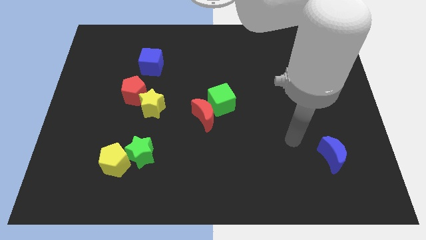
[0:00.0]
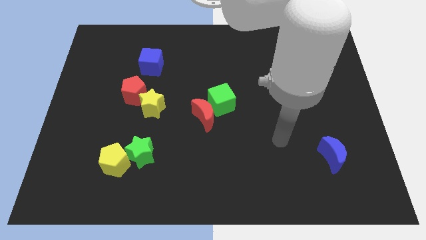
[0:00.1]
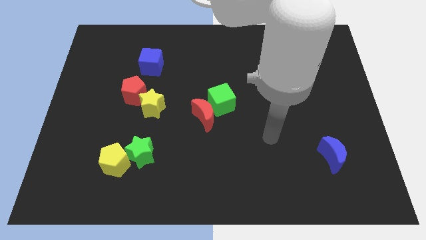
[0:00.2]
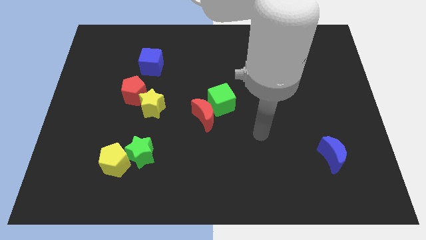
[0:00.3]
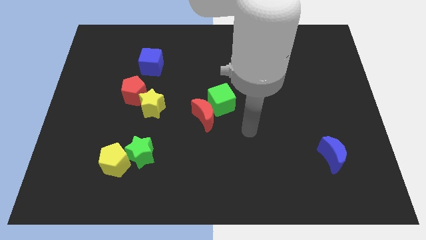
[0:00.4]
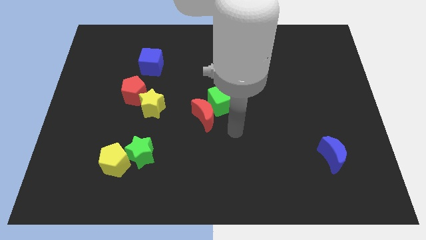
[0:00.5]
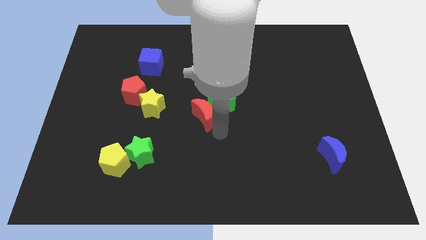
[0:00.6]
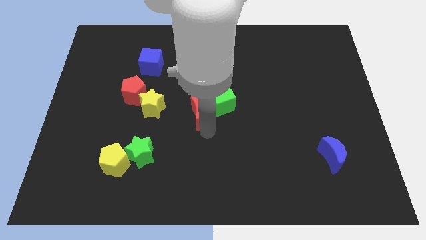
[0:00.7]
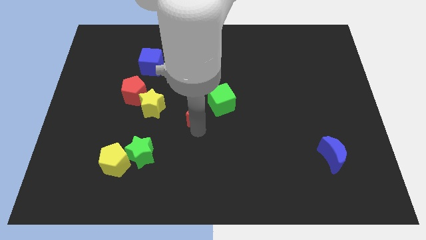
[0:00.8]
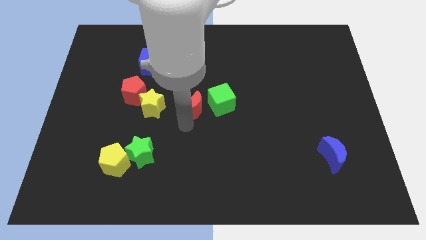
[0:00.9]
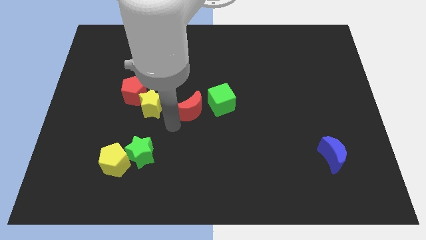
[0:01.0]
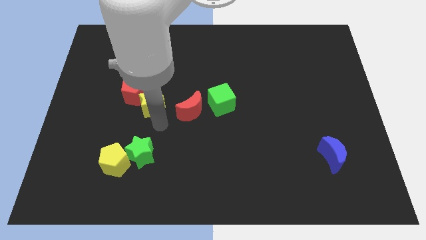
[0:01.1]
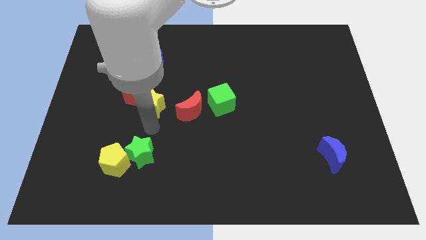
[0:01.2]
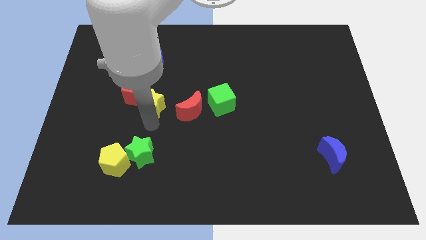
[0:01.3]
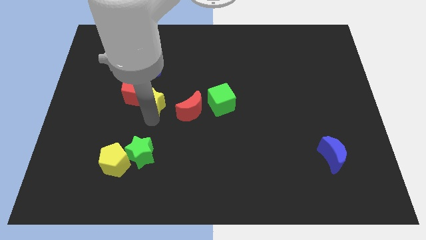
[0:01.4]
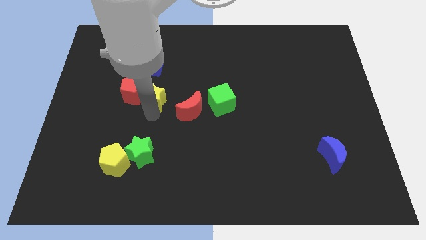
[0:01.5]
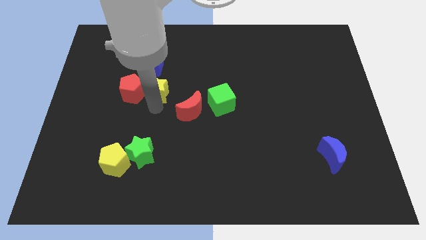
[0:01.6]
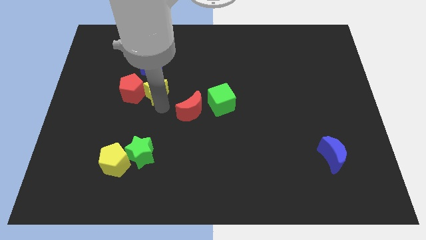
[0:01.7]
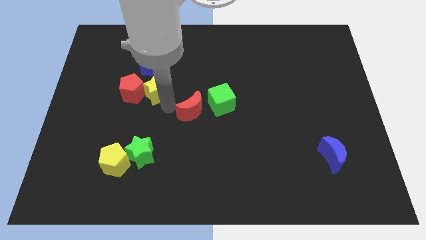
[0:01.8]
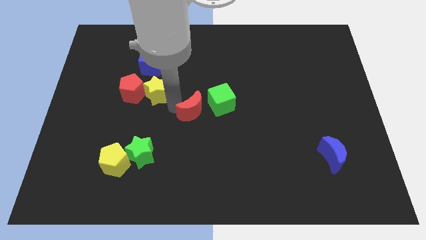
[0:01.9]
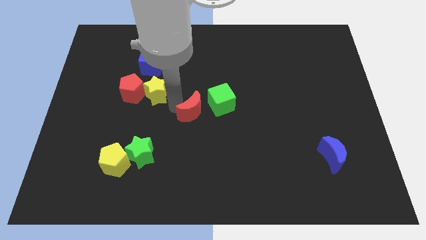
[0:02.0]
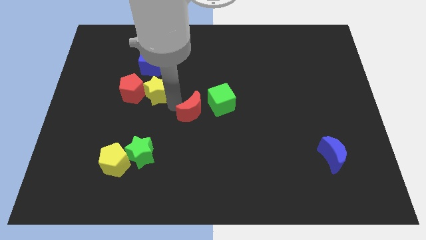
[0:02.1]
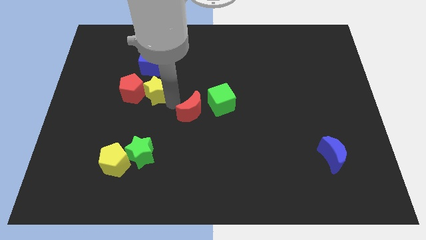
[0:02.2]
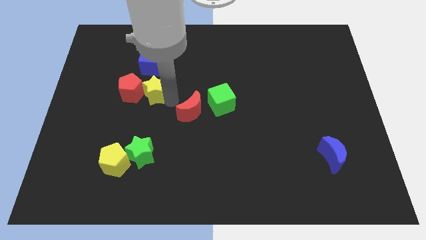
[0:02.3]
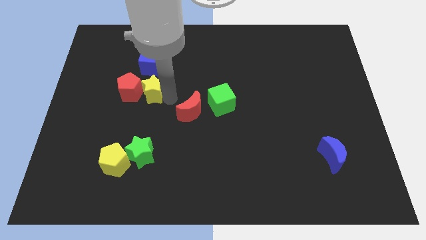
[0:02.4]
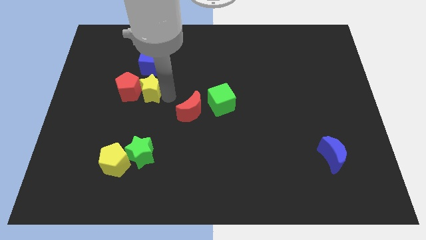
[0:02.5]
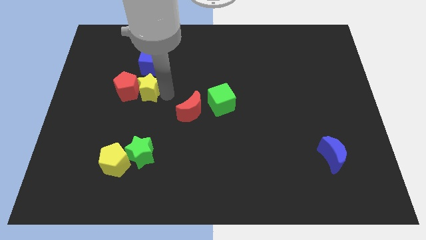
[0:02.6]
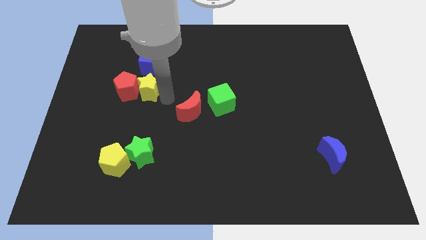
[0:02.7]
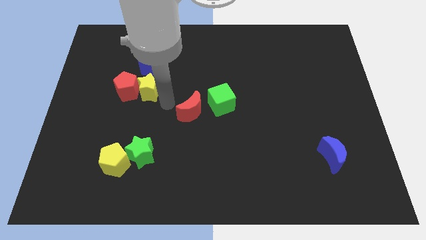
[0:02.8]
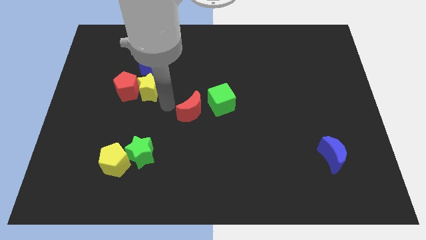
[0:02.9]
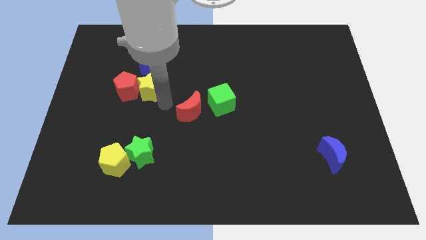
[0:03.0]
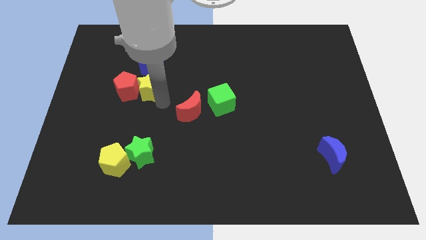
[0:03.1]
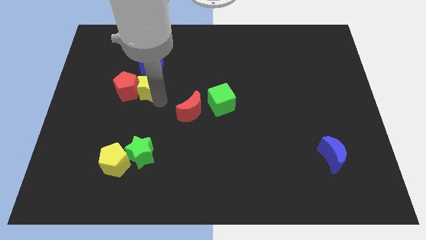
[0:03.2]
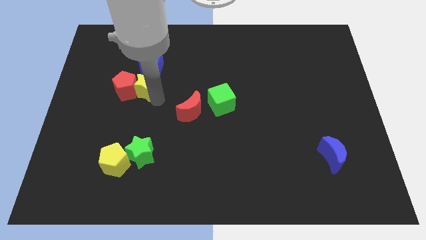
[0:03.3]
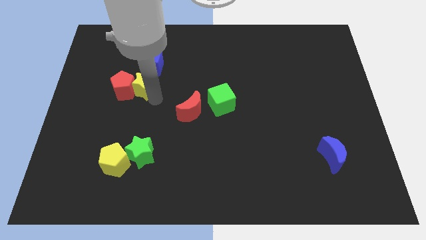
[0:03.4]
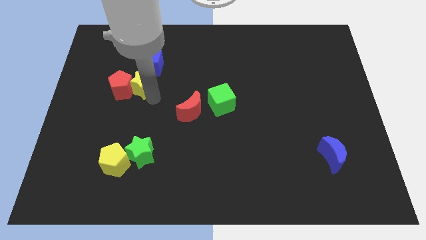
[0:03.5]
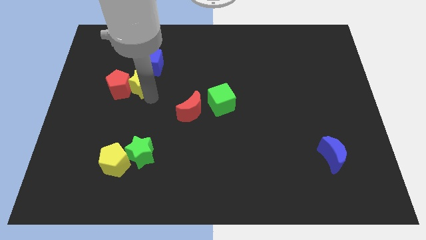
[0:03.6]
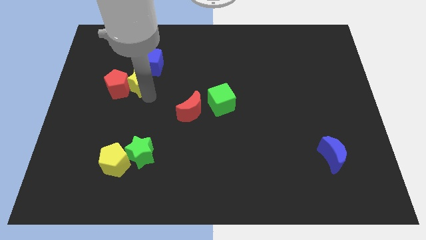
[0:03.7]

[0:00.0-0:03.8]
slightly move the yellow star diagonally upwards and to the left

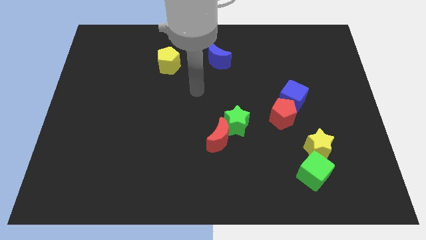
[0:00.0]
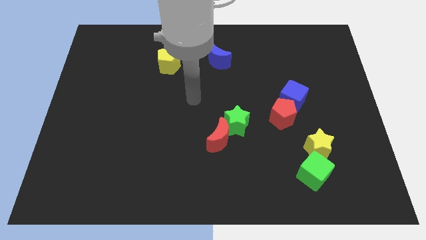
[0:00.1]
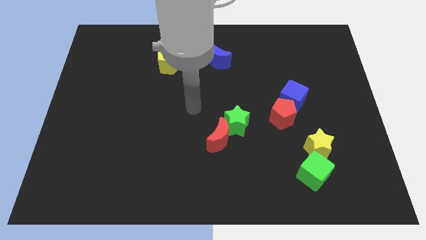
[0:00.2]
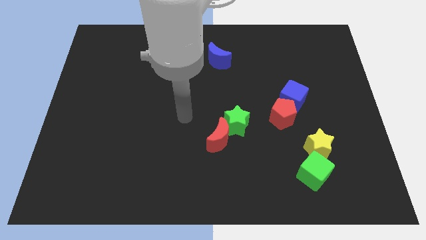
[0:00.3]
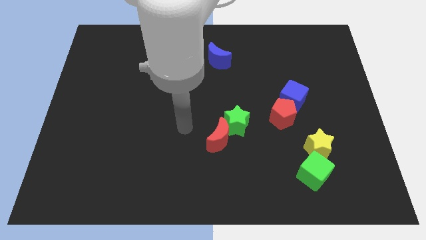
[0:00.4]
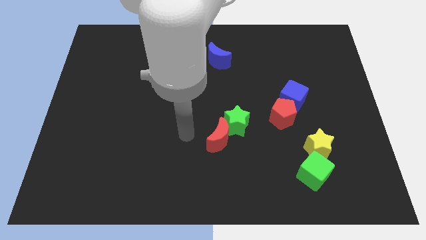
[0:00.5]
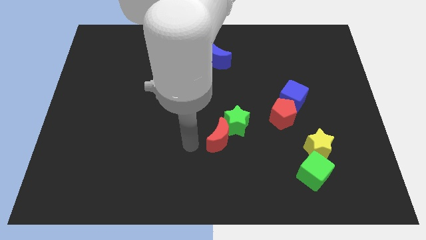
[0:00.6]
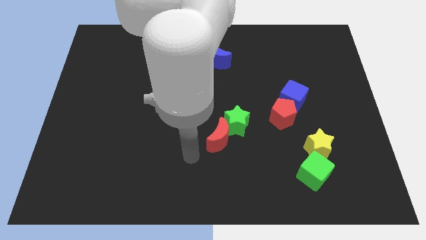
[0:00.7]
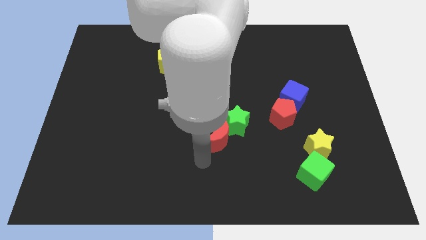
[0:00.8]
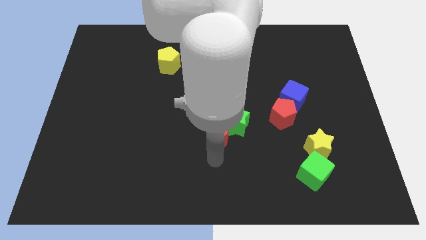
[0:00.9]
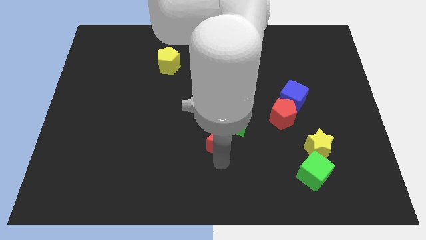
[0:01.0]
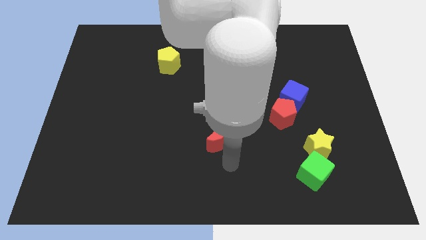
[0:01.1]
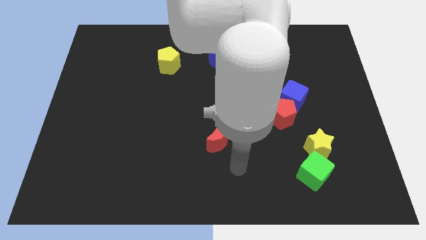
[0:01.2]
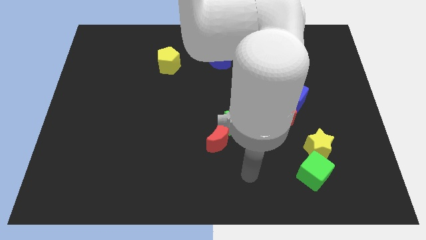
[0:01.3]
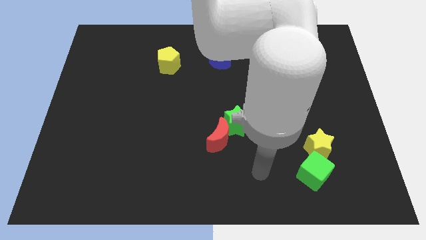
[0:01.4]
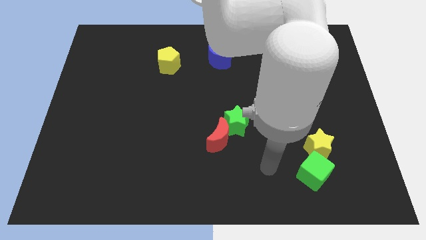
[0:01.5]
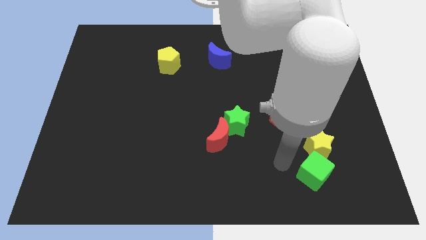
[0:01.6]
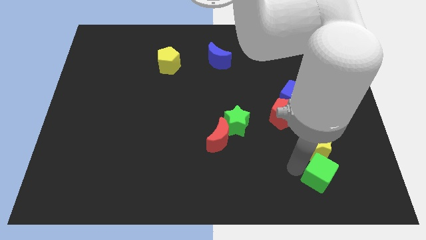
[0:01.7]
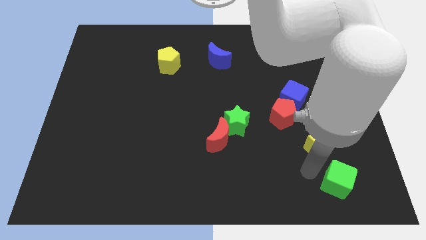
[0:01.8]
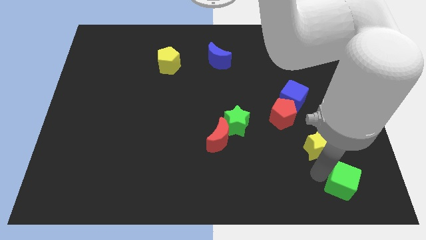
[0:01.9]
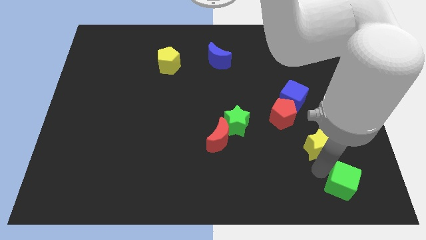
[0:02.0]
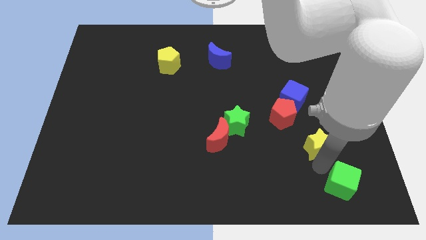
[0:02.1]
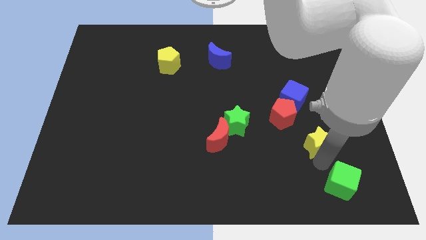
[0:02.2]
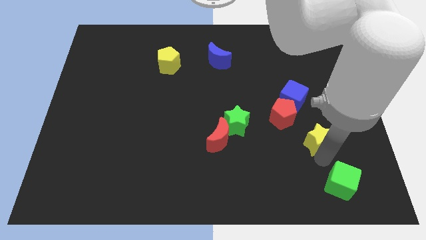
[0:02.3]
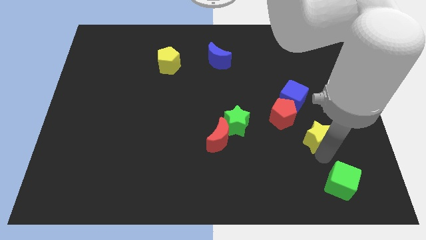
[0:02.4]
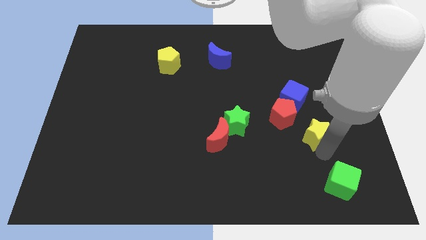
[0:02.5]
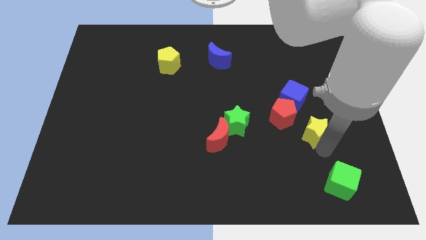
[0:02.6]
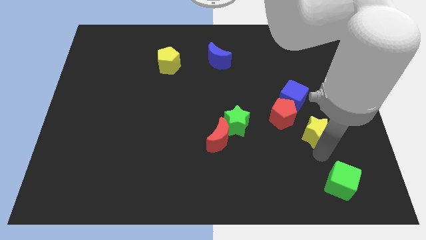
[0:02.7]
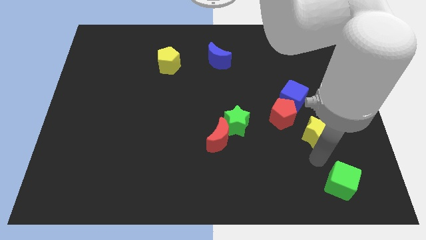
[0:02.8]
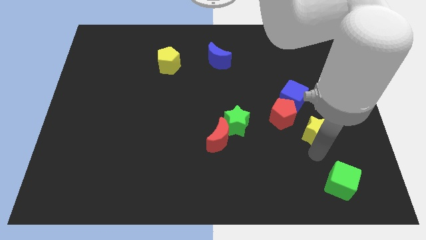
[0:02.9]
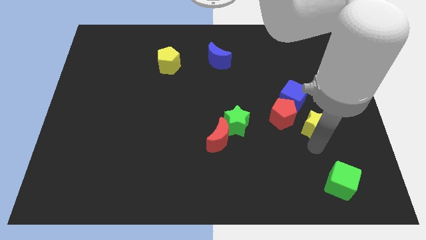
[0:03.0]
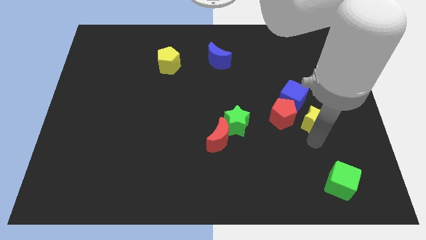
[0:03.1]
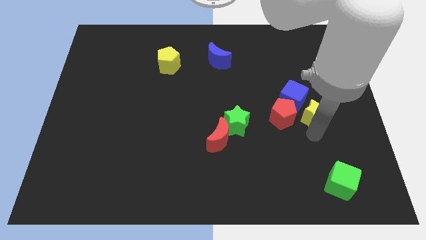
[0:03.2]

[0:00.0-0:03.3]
slide the yellow star a little bit up

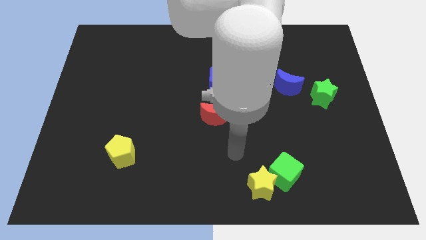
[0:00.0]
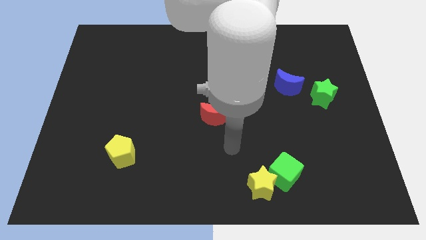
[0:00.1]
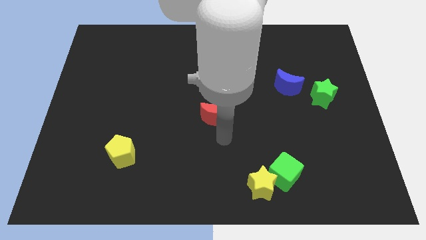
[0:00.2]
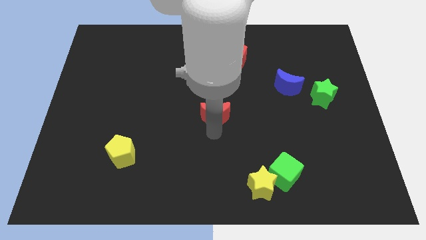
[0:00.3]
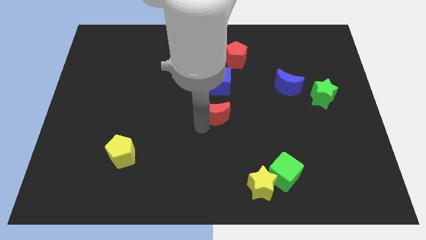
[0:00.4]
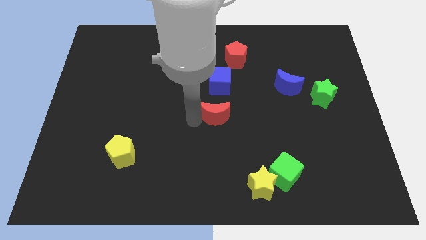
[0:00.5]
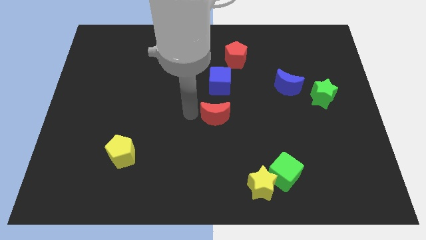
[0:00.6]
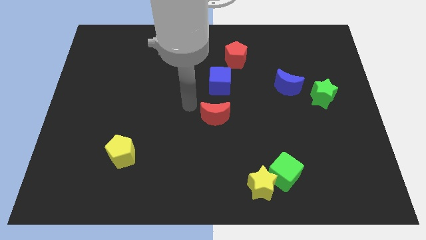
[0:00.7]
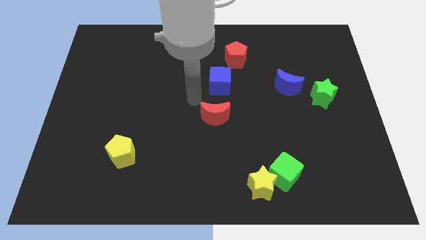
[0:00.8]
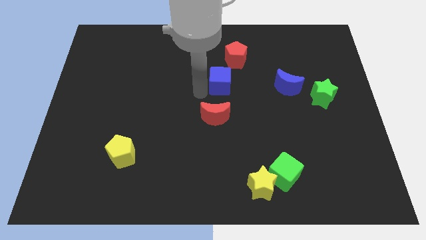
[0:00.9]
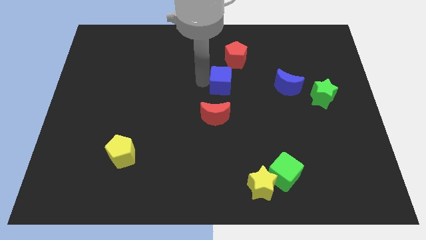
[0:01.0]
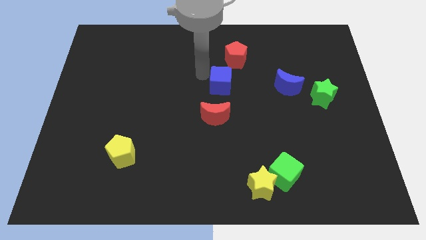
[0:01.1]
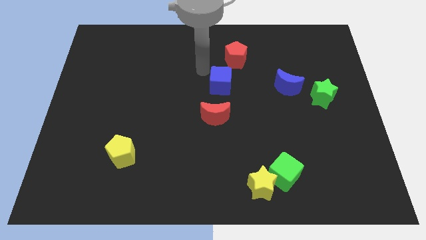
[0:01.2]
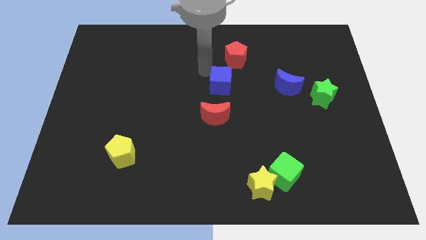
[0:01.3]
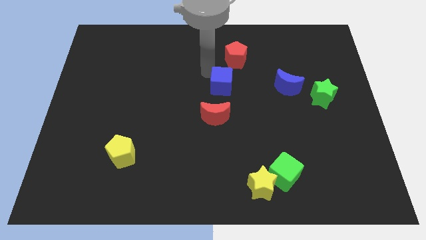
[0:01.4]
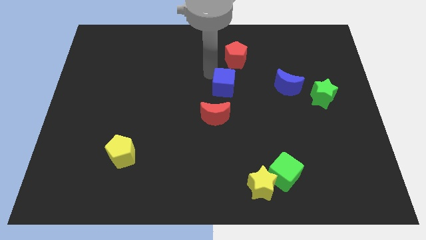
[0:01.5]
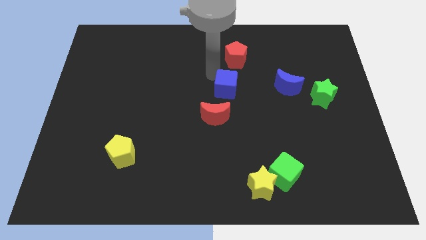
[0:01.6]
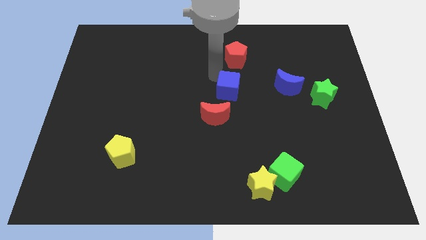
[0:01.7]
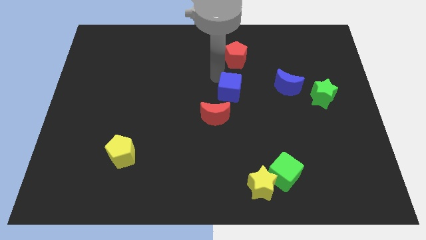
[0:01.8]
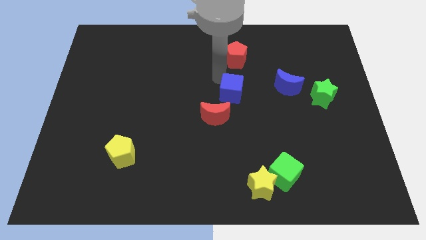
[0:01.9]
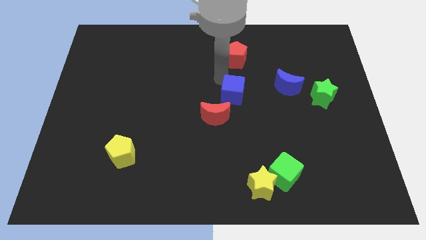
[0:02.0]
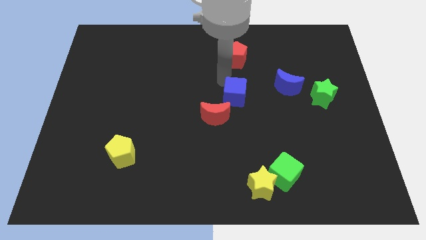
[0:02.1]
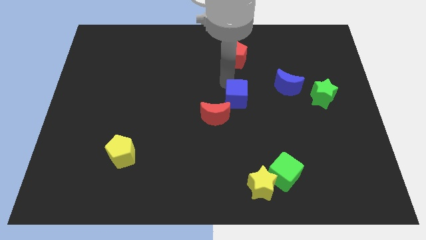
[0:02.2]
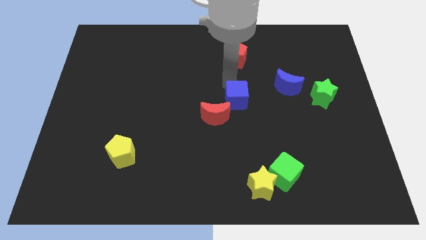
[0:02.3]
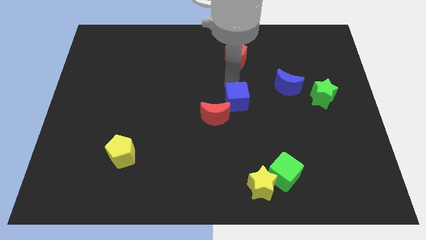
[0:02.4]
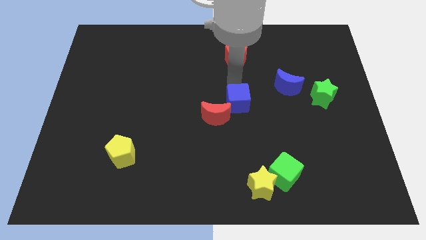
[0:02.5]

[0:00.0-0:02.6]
slightly move the blue cube down and to the right
